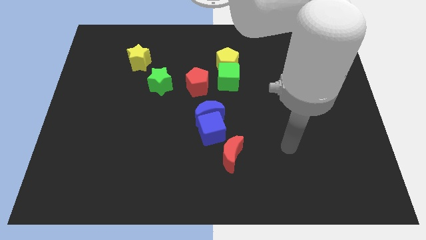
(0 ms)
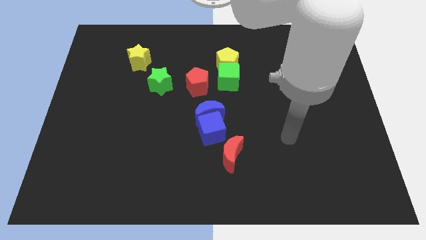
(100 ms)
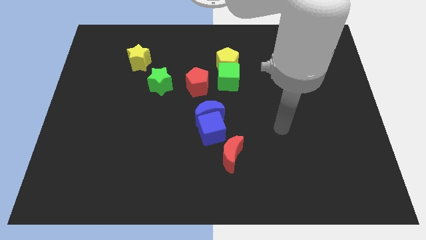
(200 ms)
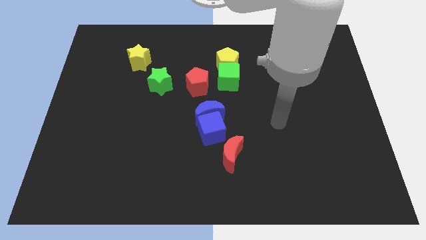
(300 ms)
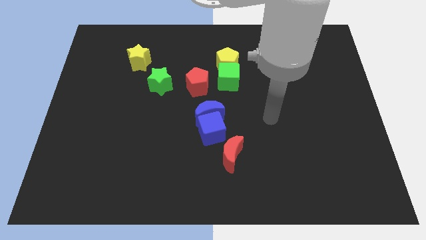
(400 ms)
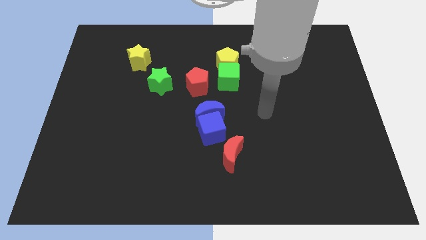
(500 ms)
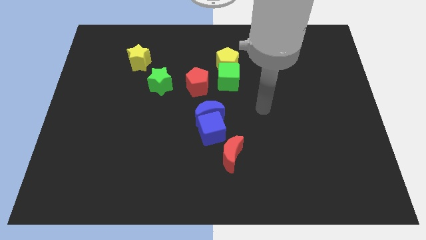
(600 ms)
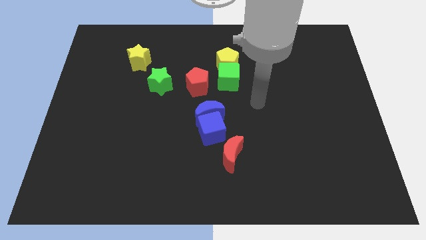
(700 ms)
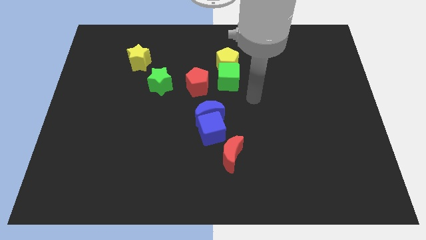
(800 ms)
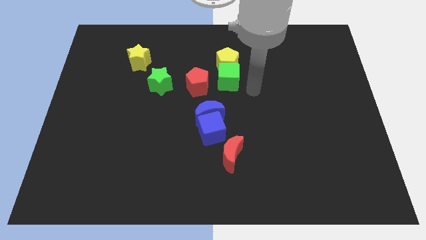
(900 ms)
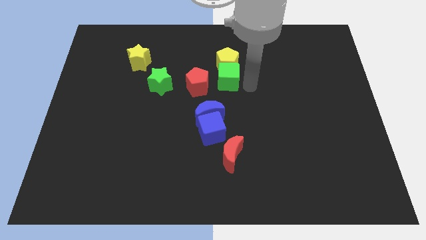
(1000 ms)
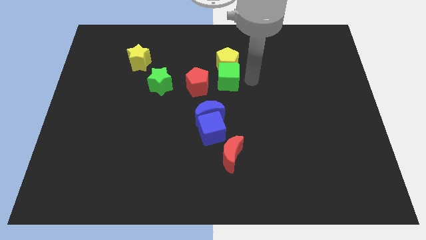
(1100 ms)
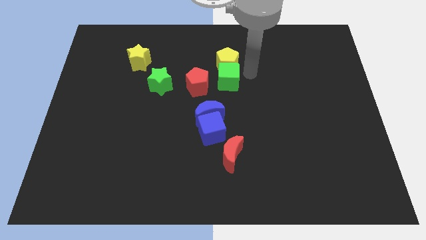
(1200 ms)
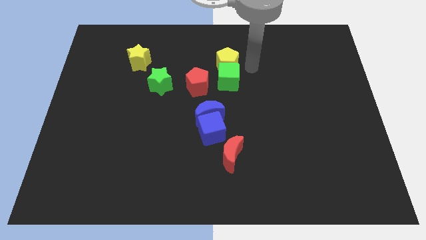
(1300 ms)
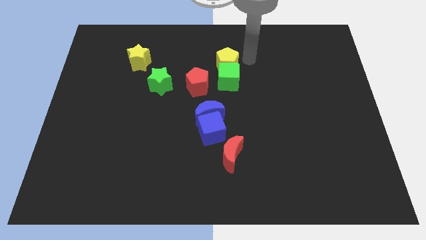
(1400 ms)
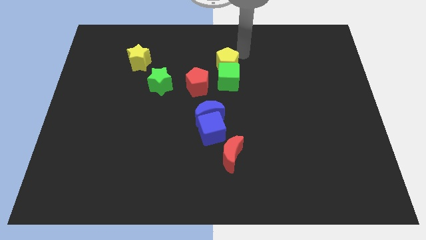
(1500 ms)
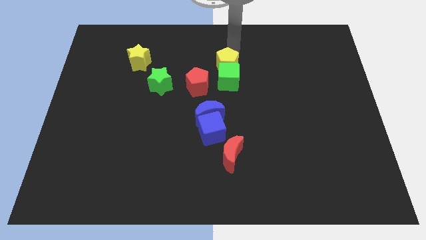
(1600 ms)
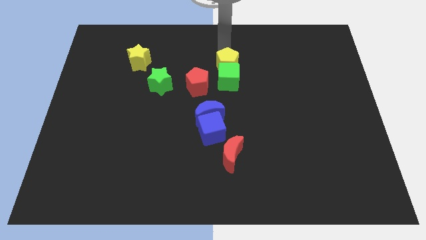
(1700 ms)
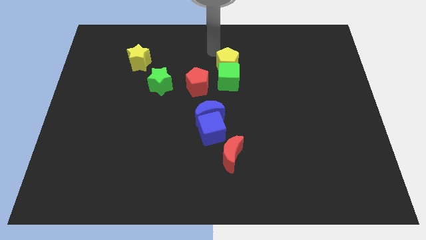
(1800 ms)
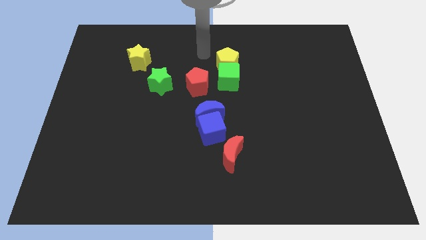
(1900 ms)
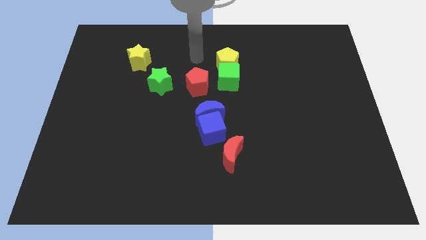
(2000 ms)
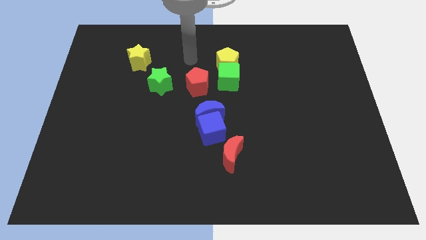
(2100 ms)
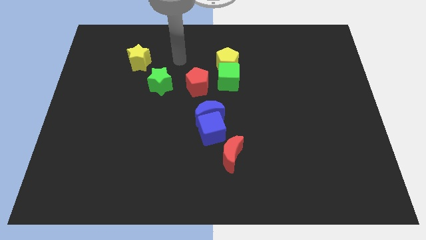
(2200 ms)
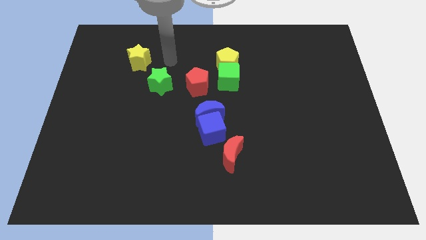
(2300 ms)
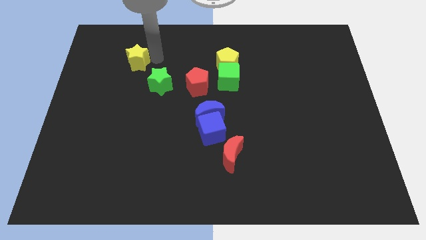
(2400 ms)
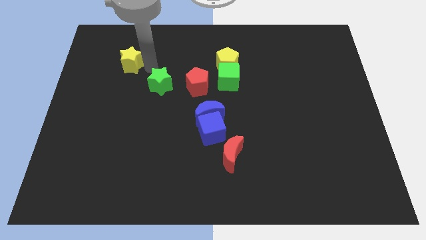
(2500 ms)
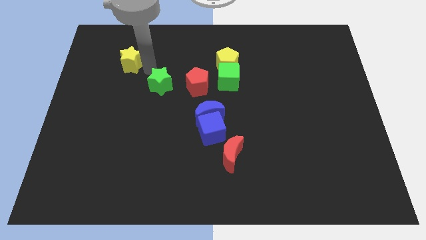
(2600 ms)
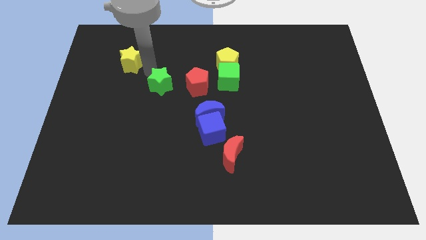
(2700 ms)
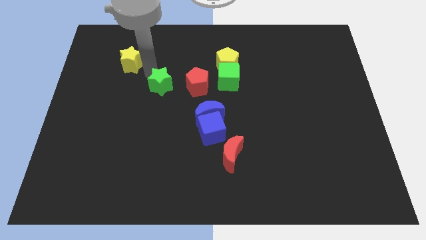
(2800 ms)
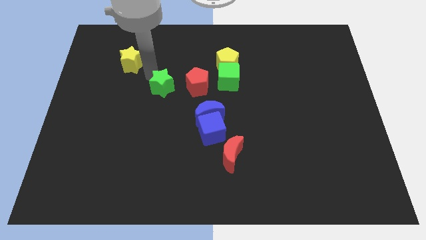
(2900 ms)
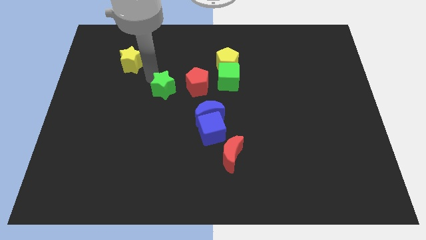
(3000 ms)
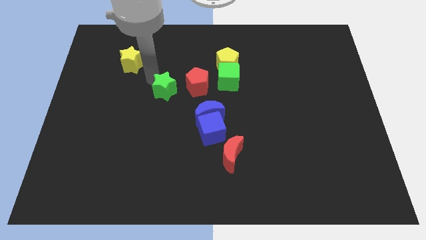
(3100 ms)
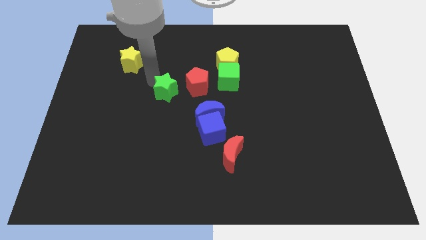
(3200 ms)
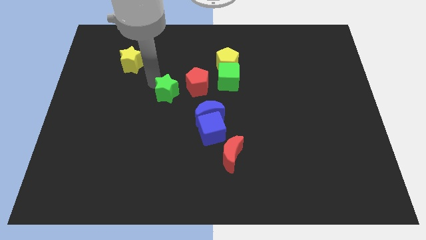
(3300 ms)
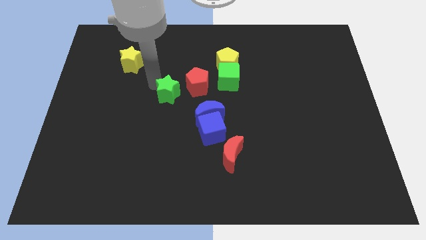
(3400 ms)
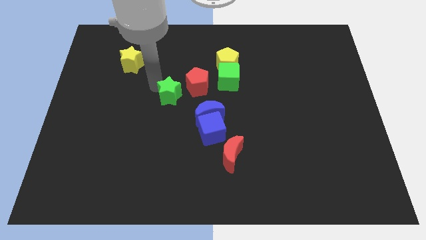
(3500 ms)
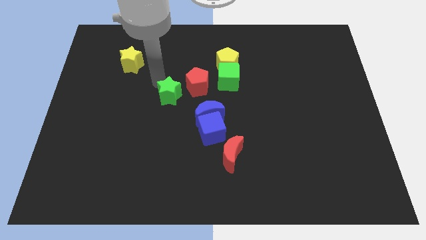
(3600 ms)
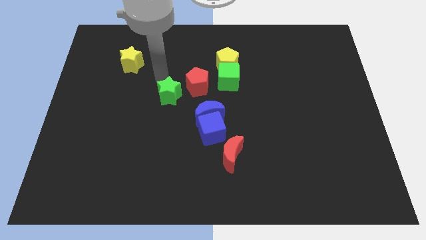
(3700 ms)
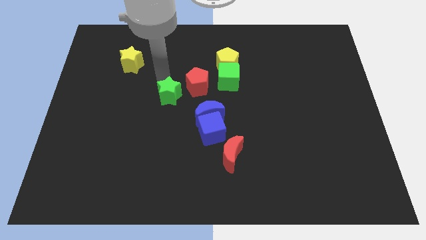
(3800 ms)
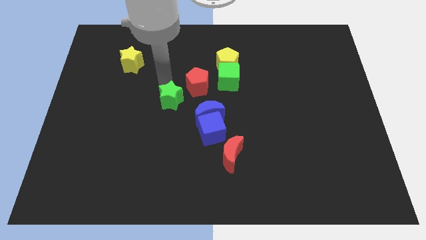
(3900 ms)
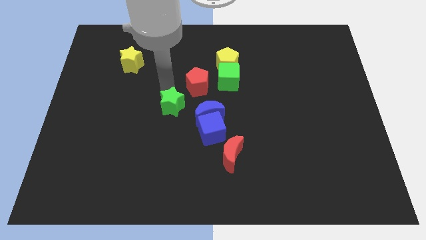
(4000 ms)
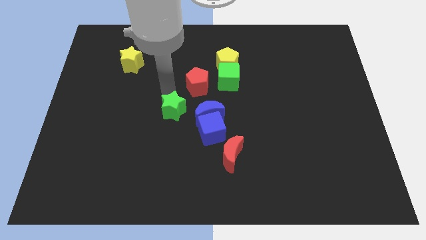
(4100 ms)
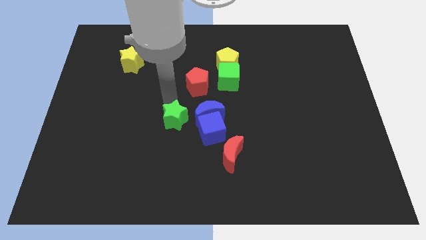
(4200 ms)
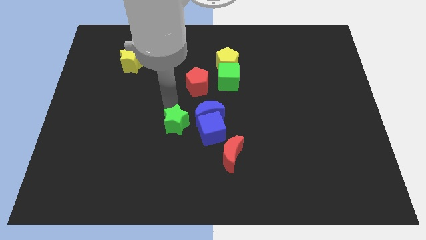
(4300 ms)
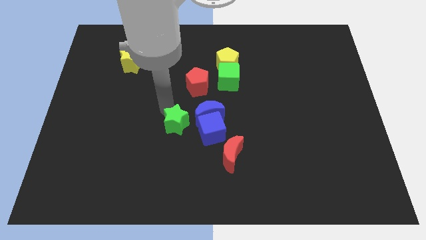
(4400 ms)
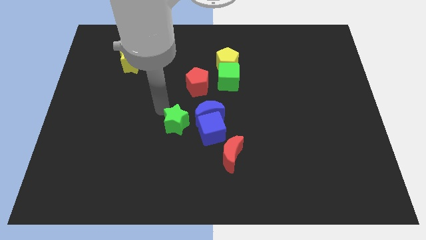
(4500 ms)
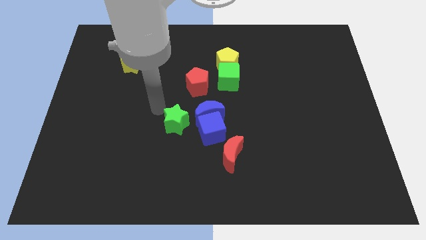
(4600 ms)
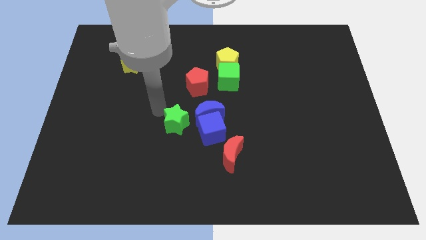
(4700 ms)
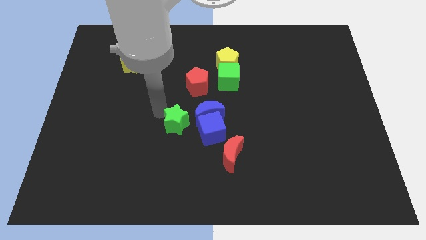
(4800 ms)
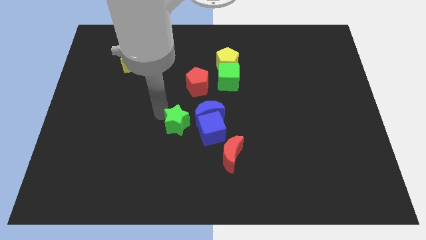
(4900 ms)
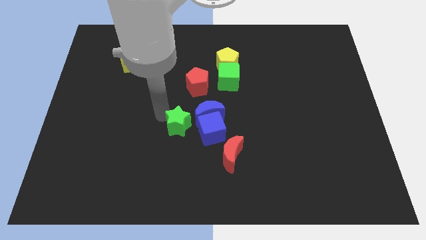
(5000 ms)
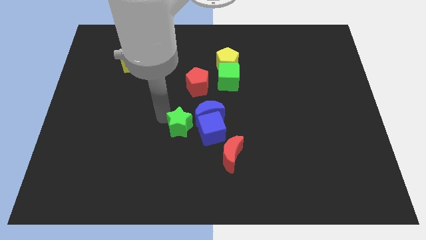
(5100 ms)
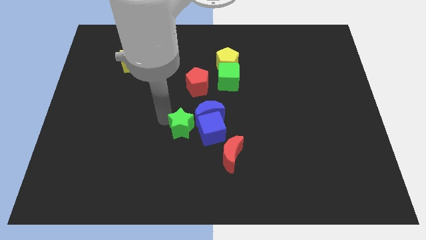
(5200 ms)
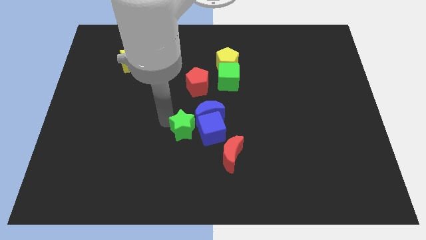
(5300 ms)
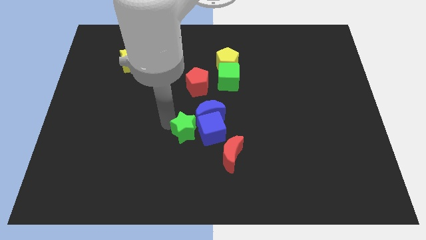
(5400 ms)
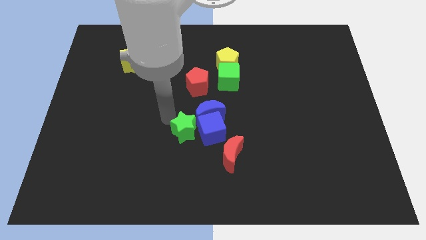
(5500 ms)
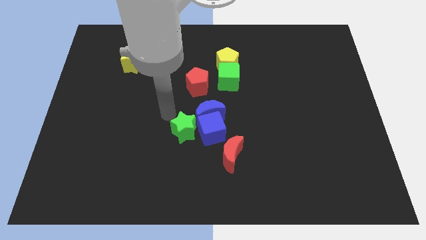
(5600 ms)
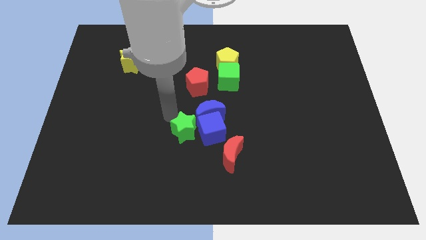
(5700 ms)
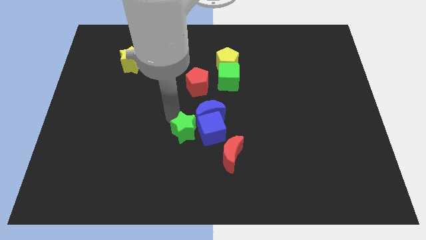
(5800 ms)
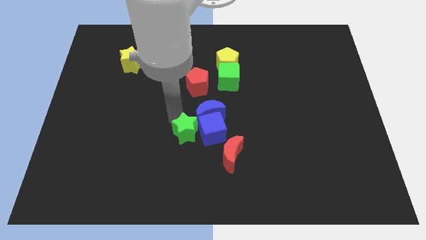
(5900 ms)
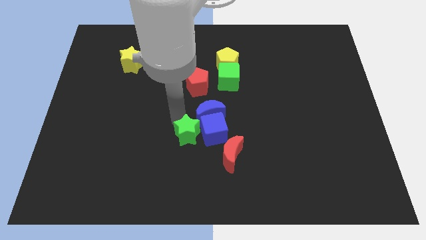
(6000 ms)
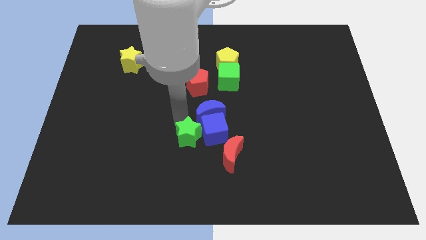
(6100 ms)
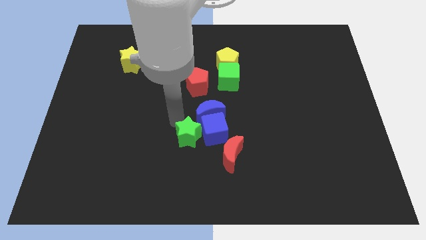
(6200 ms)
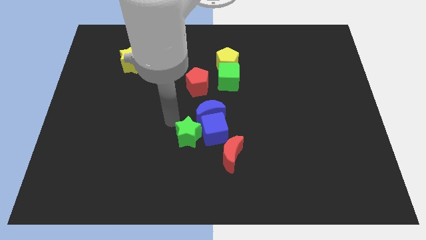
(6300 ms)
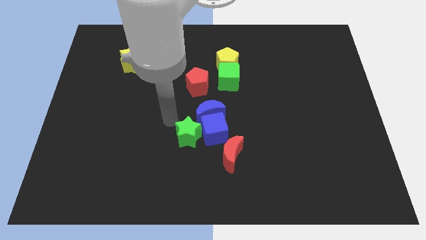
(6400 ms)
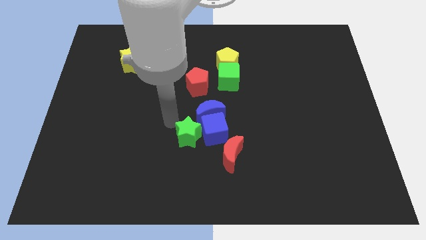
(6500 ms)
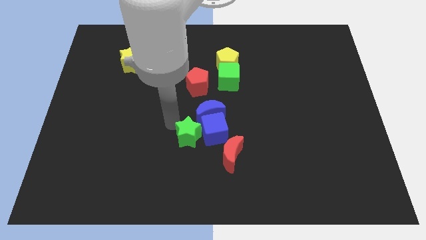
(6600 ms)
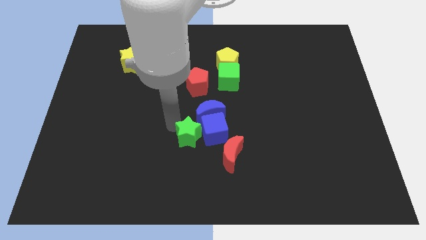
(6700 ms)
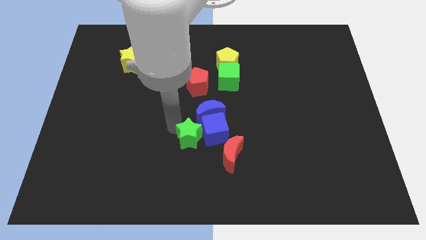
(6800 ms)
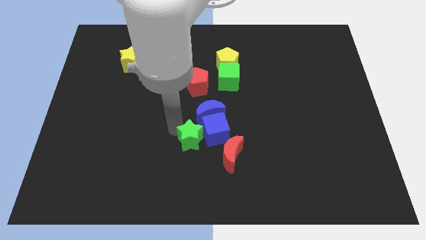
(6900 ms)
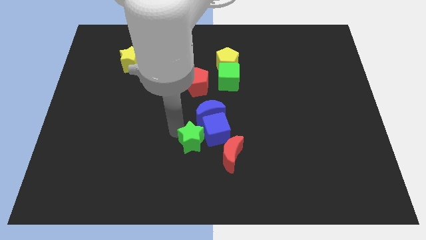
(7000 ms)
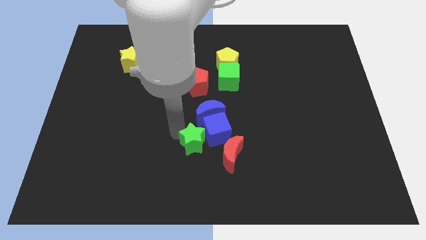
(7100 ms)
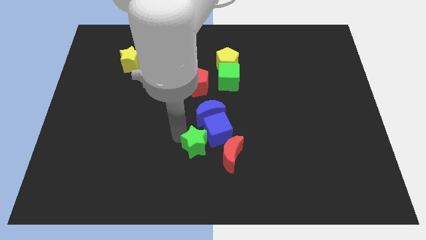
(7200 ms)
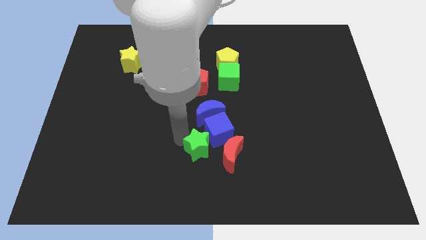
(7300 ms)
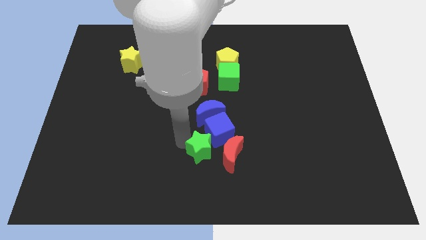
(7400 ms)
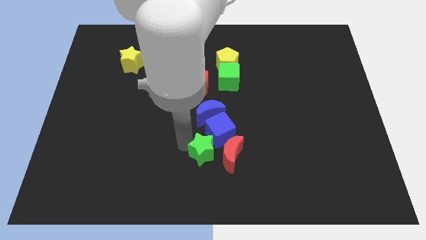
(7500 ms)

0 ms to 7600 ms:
push the green star close to the red moon

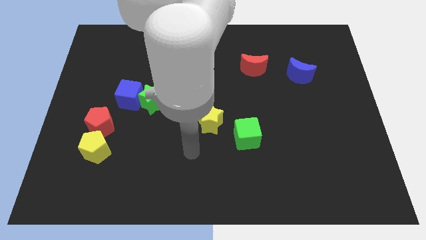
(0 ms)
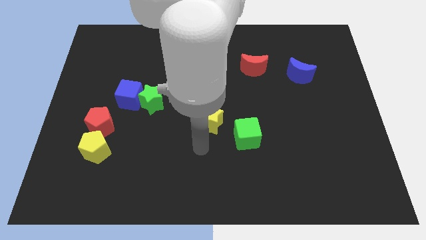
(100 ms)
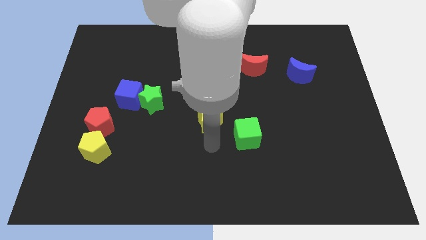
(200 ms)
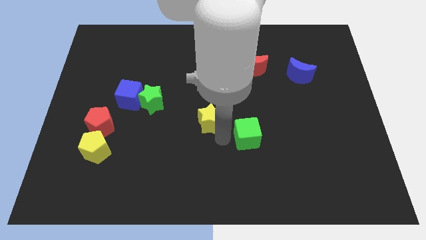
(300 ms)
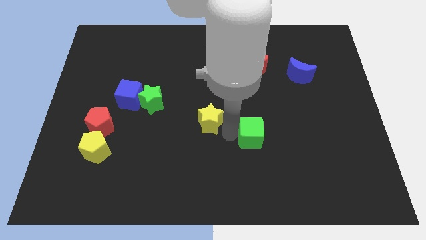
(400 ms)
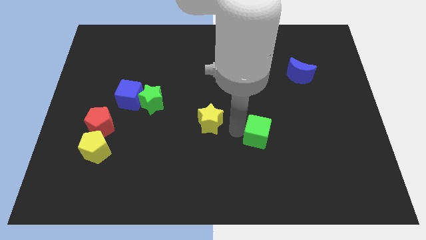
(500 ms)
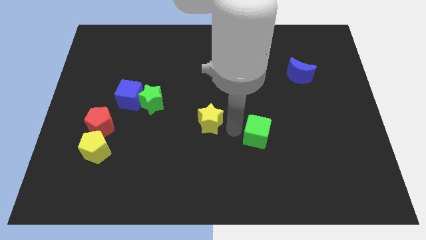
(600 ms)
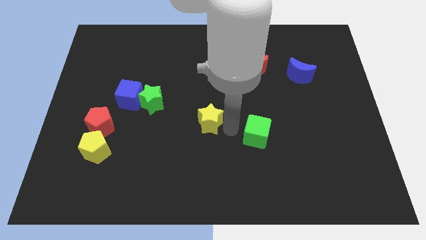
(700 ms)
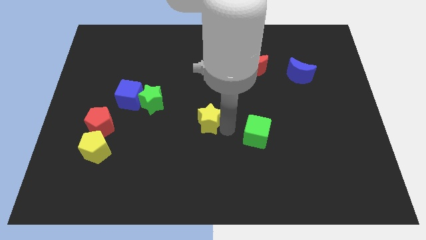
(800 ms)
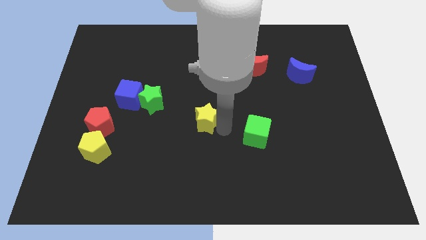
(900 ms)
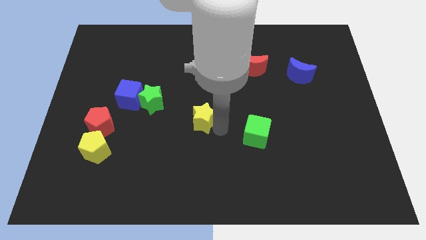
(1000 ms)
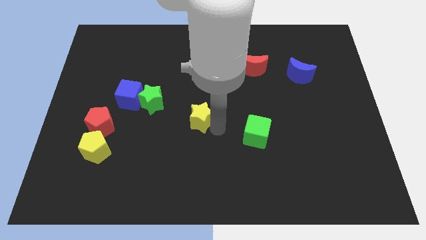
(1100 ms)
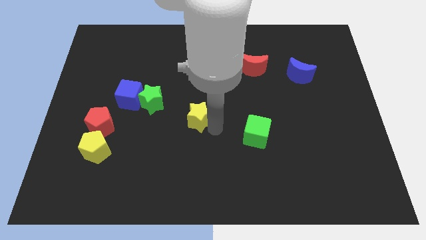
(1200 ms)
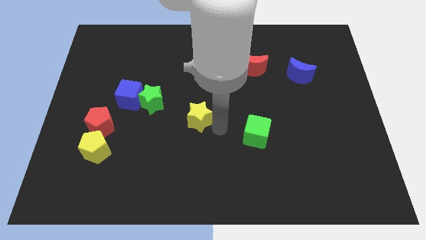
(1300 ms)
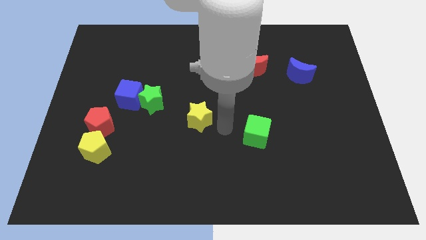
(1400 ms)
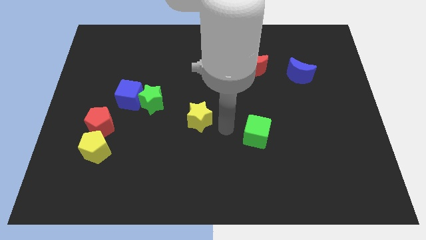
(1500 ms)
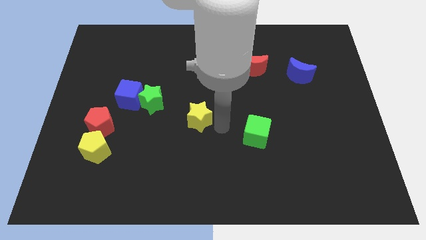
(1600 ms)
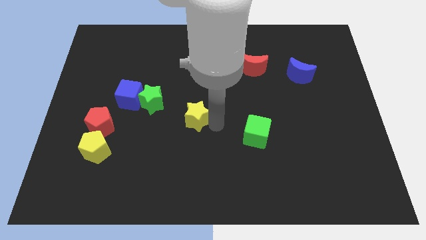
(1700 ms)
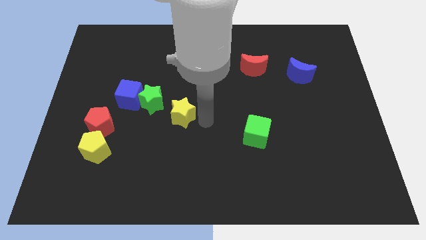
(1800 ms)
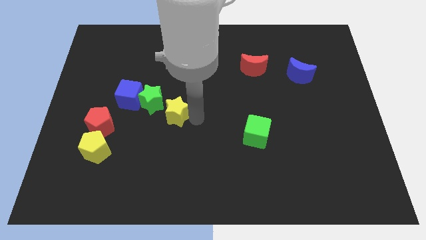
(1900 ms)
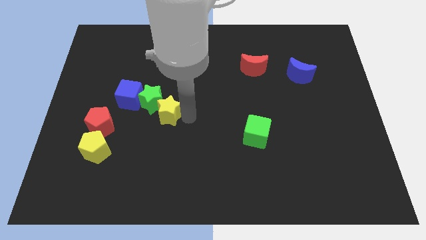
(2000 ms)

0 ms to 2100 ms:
slide the yellow star to the green star
